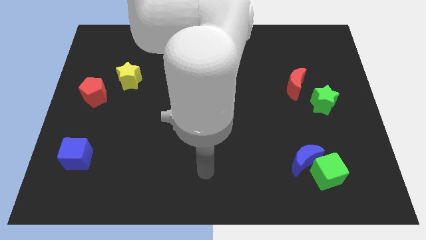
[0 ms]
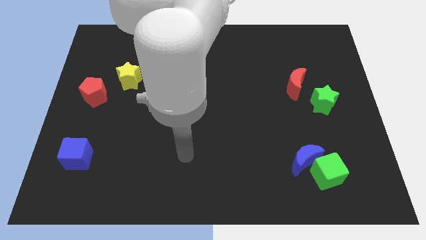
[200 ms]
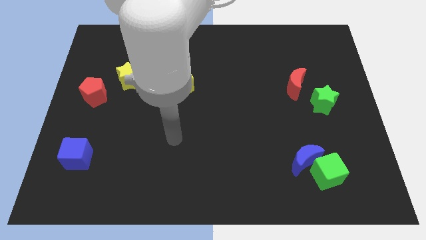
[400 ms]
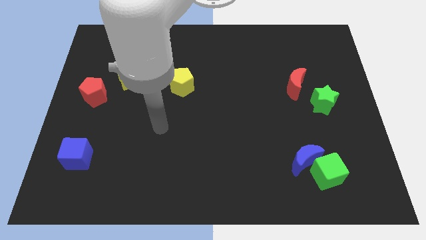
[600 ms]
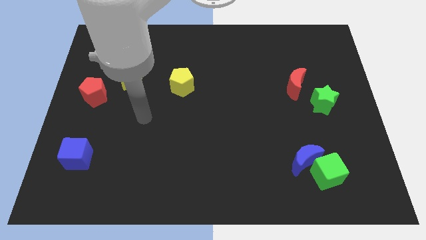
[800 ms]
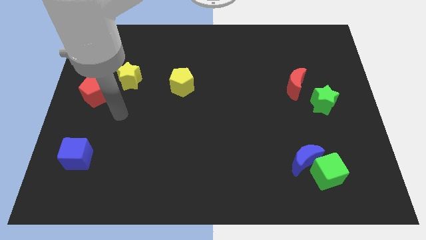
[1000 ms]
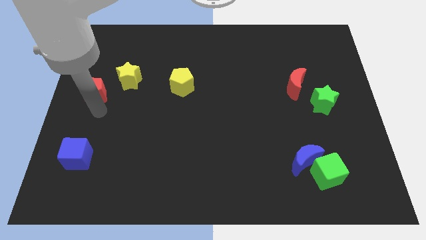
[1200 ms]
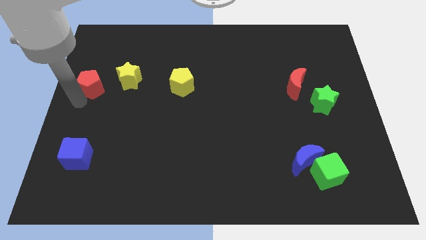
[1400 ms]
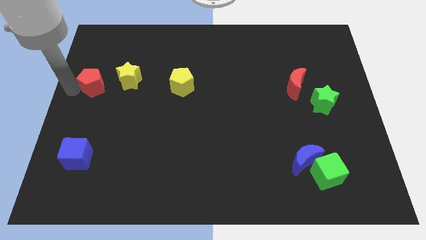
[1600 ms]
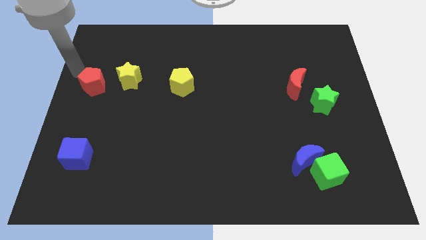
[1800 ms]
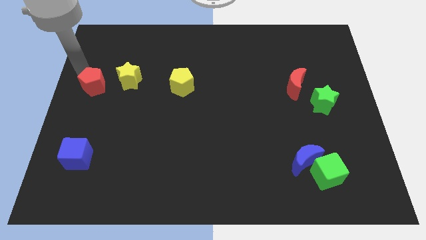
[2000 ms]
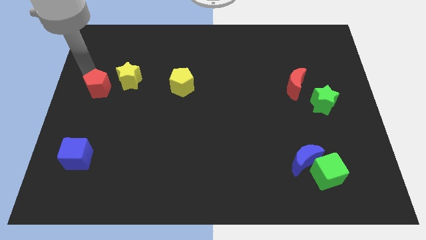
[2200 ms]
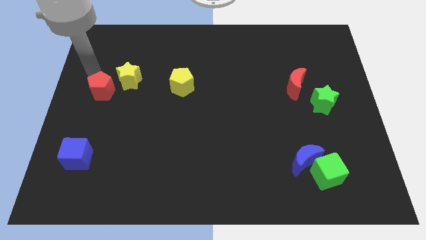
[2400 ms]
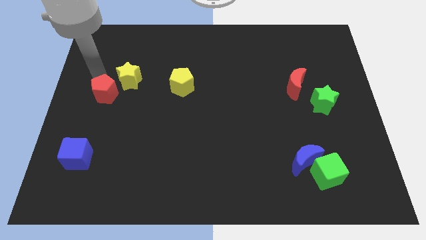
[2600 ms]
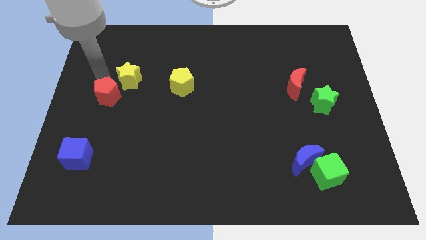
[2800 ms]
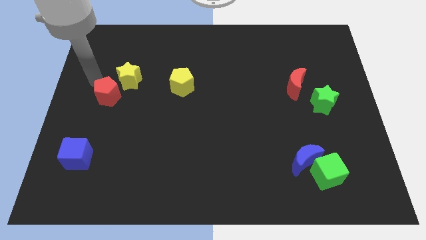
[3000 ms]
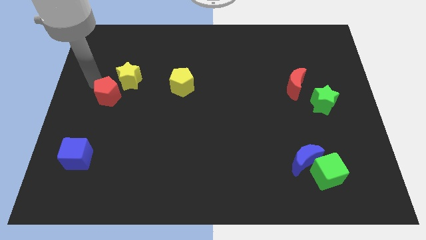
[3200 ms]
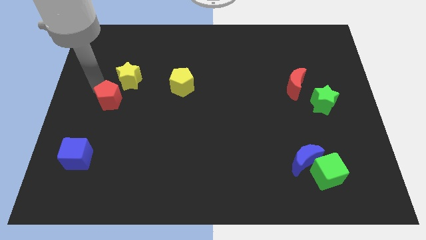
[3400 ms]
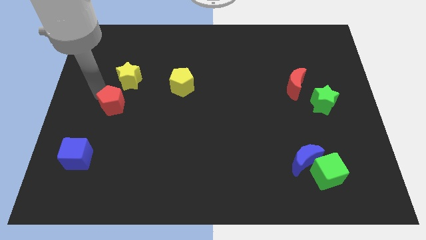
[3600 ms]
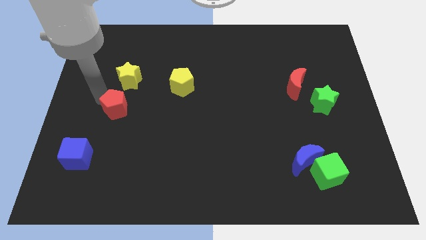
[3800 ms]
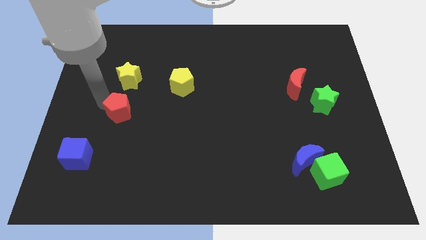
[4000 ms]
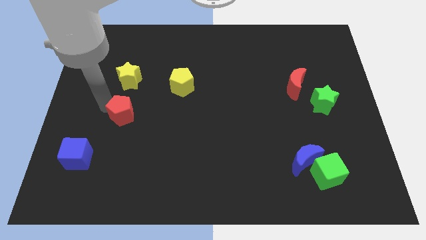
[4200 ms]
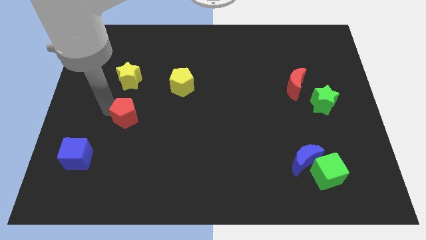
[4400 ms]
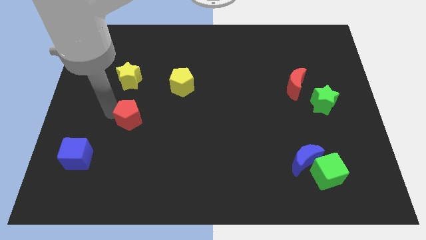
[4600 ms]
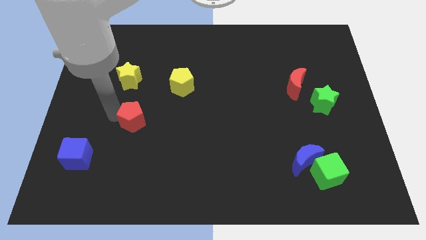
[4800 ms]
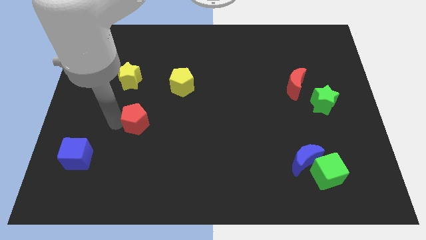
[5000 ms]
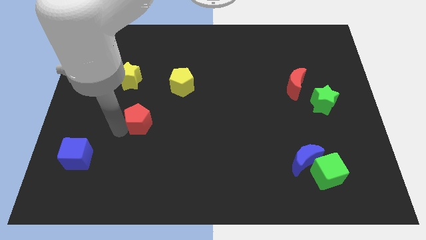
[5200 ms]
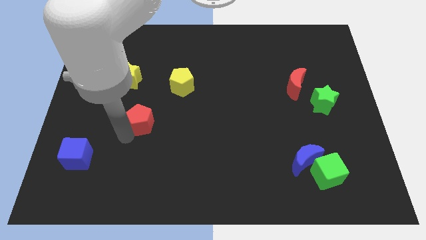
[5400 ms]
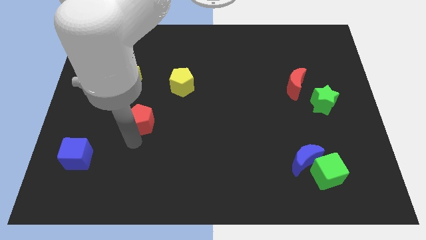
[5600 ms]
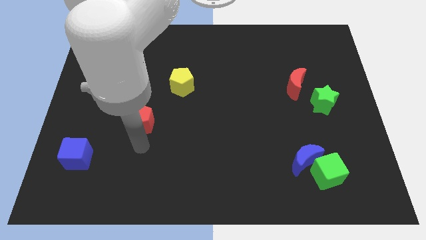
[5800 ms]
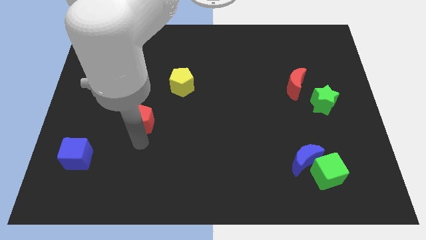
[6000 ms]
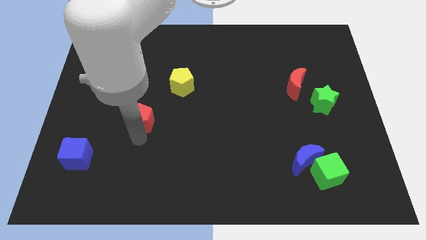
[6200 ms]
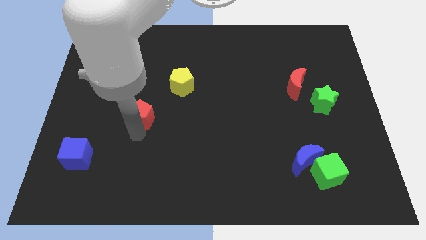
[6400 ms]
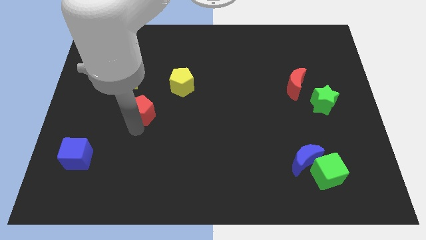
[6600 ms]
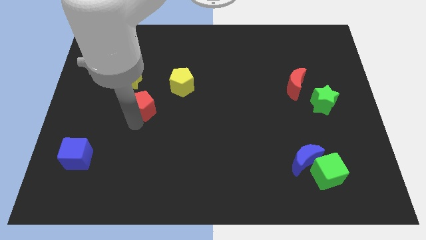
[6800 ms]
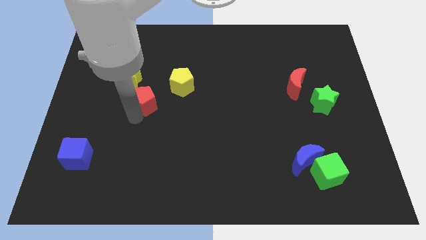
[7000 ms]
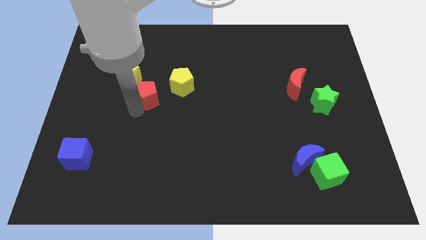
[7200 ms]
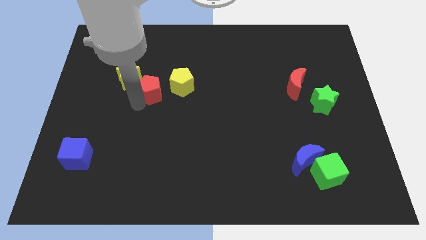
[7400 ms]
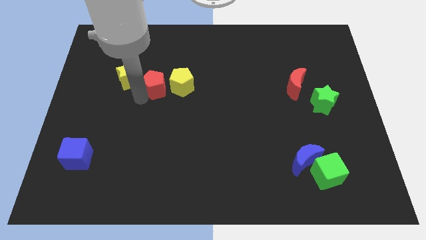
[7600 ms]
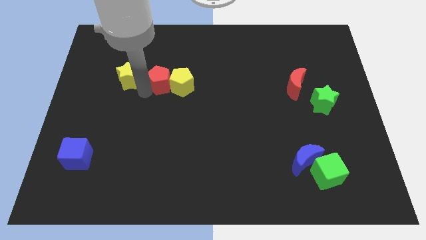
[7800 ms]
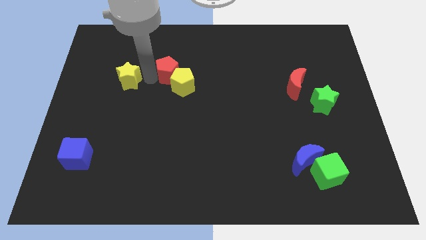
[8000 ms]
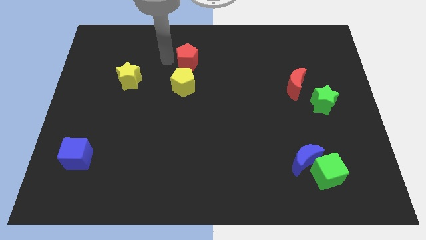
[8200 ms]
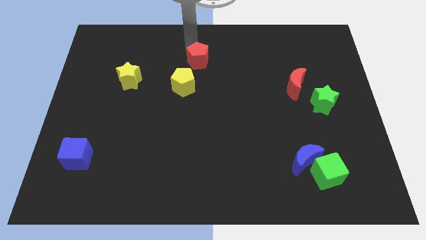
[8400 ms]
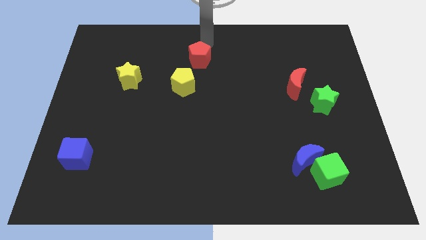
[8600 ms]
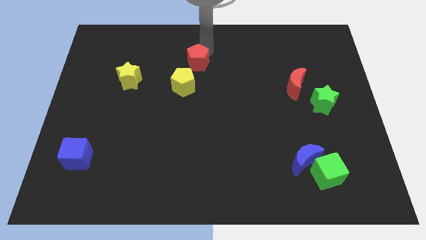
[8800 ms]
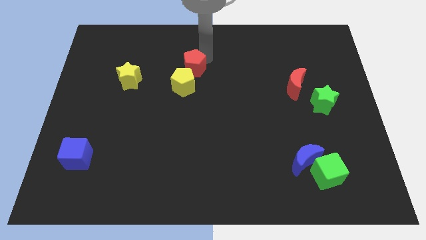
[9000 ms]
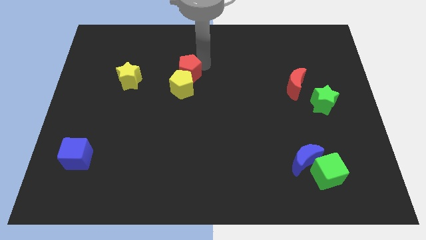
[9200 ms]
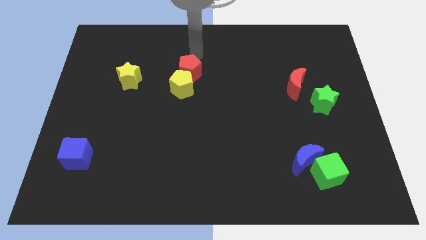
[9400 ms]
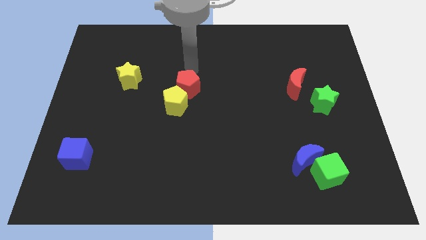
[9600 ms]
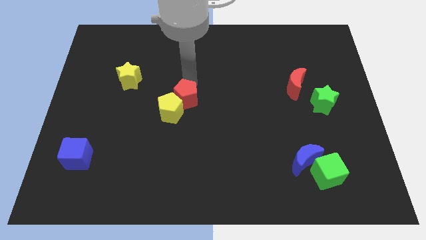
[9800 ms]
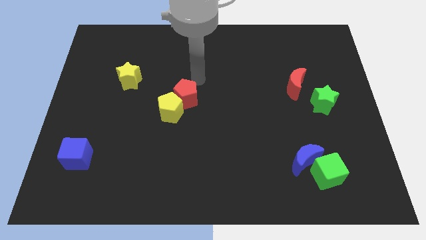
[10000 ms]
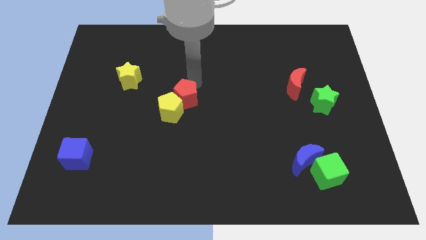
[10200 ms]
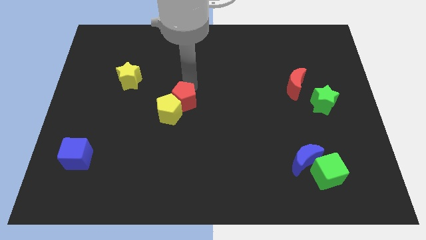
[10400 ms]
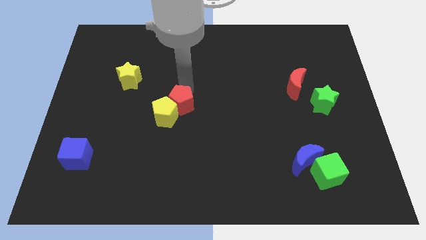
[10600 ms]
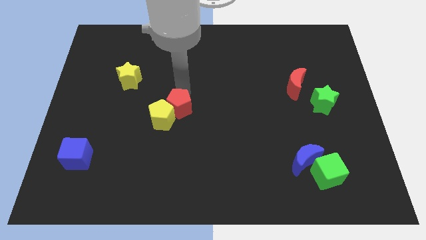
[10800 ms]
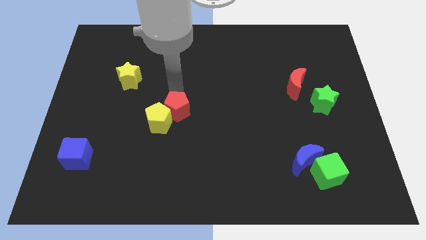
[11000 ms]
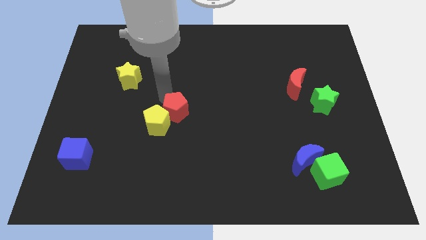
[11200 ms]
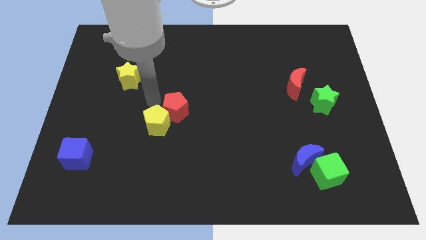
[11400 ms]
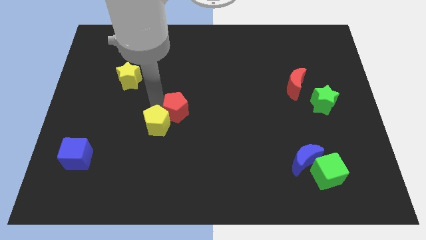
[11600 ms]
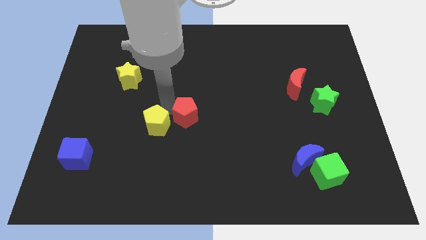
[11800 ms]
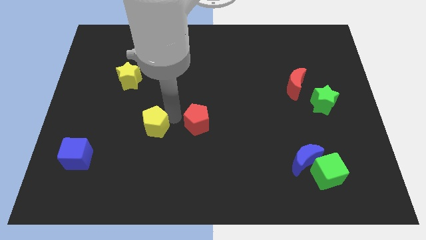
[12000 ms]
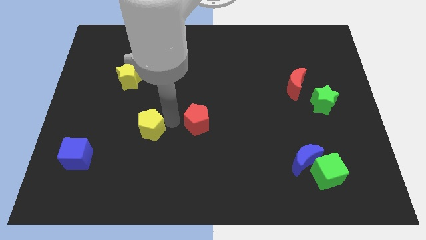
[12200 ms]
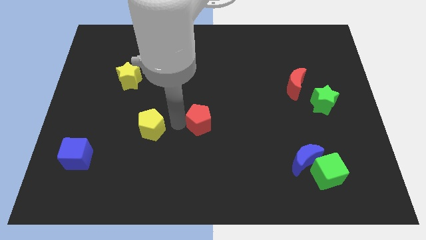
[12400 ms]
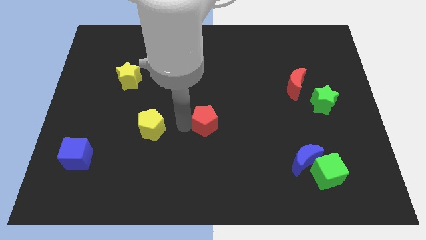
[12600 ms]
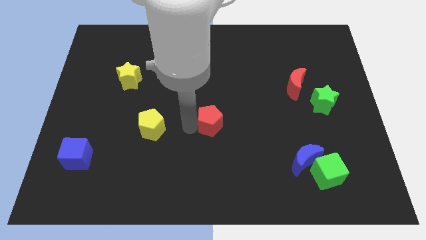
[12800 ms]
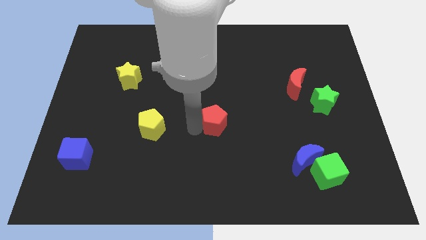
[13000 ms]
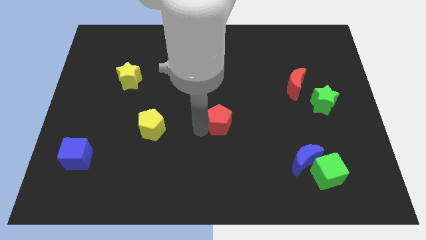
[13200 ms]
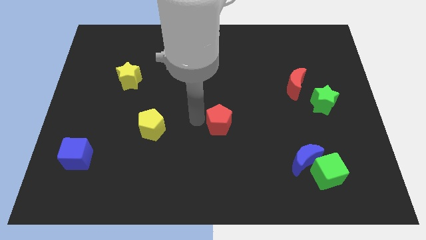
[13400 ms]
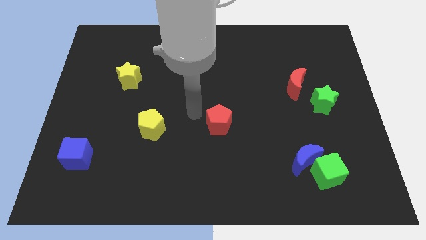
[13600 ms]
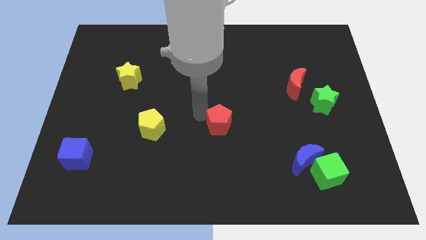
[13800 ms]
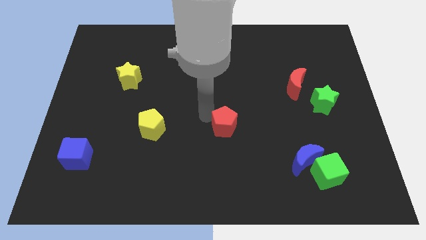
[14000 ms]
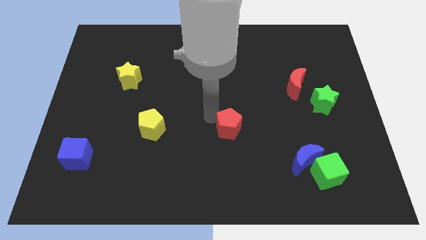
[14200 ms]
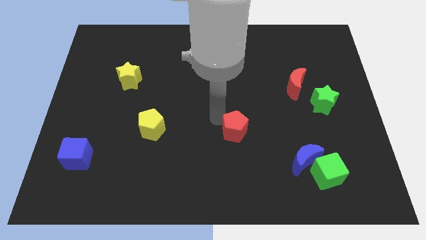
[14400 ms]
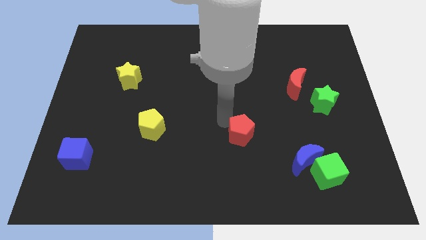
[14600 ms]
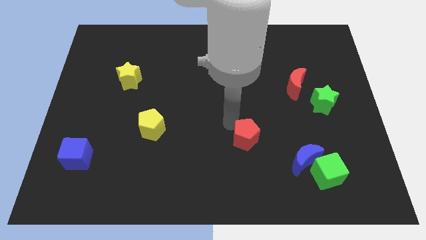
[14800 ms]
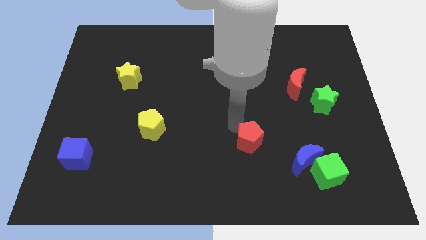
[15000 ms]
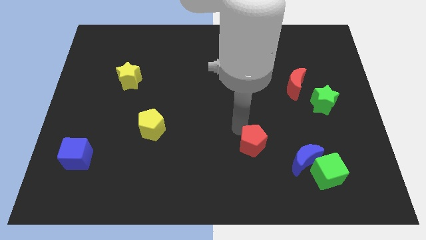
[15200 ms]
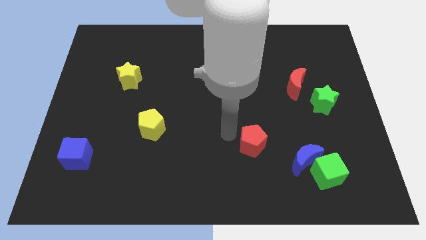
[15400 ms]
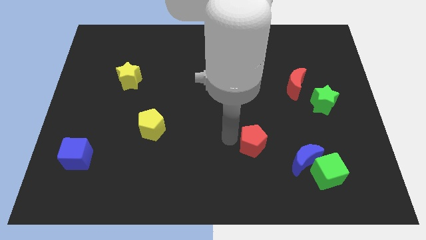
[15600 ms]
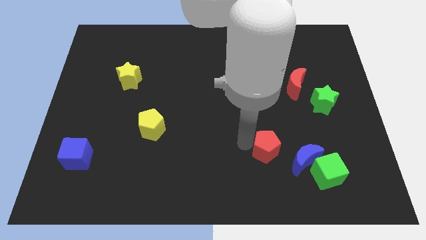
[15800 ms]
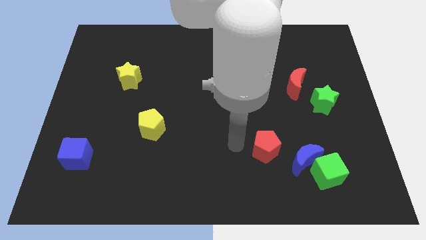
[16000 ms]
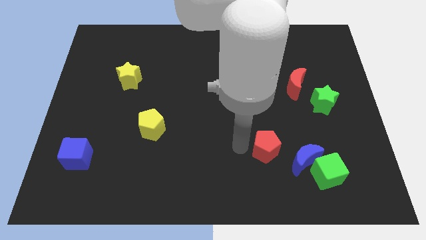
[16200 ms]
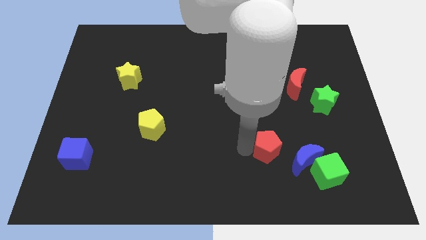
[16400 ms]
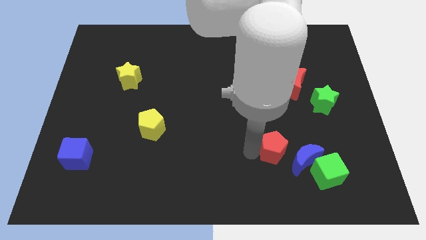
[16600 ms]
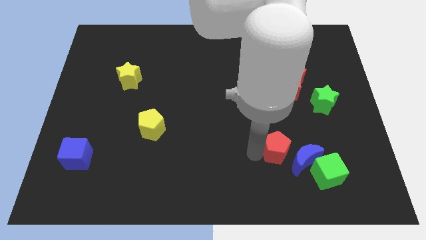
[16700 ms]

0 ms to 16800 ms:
move the red pentagon to the blue moon
